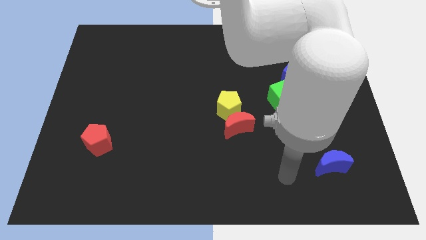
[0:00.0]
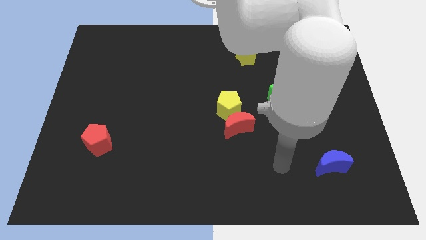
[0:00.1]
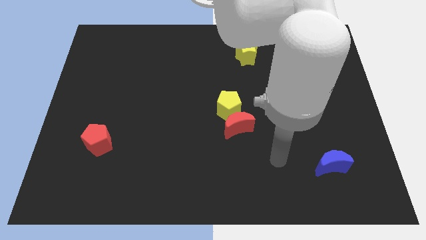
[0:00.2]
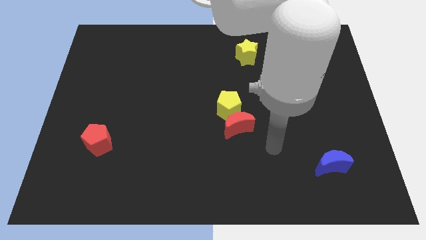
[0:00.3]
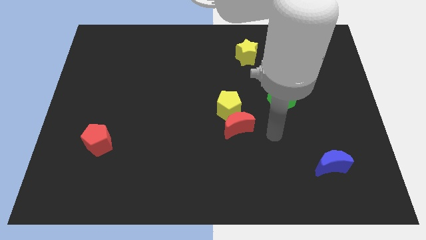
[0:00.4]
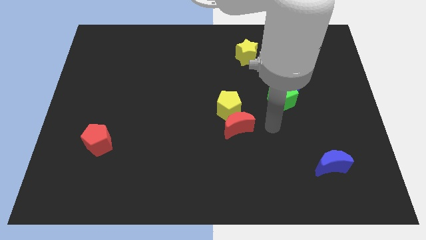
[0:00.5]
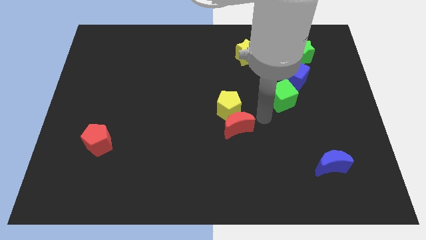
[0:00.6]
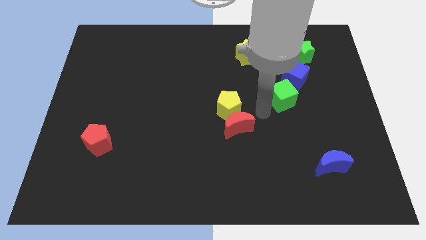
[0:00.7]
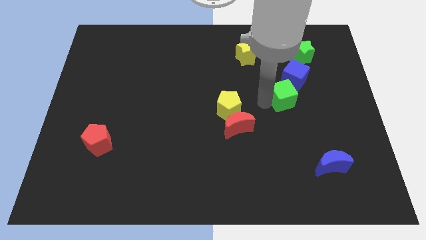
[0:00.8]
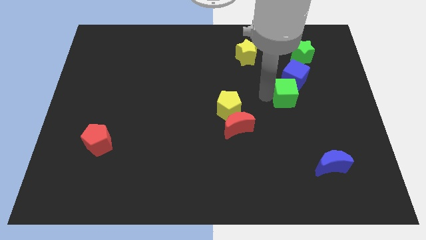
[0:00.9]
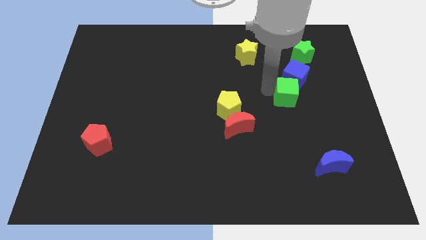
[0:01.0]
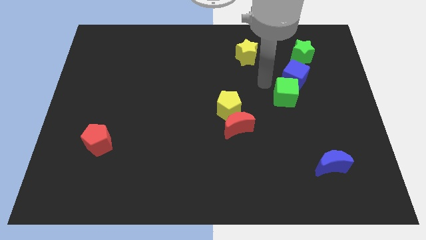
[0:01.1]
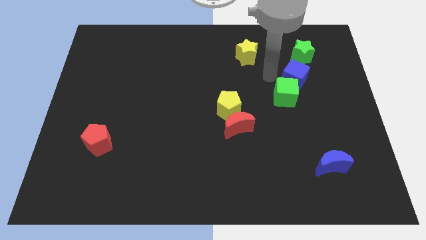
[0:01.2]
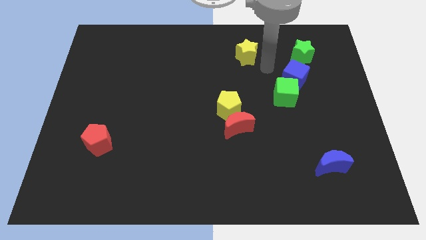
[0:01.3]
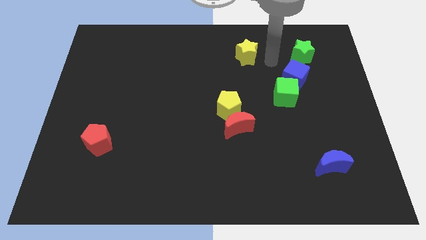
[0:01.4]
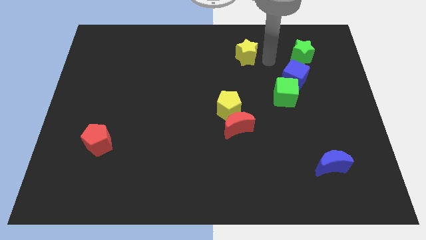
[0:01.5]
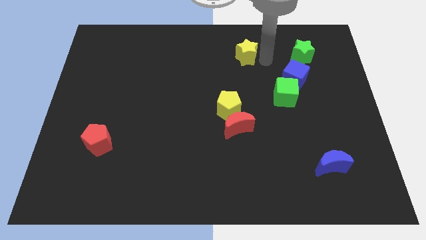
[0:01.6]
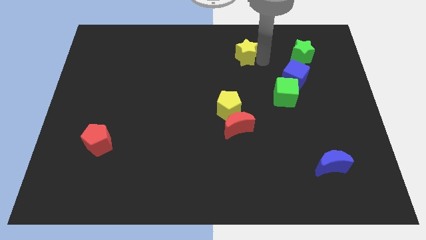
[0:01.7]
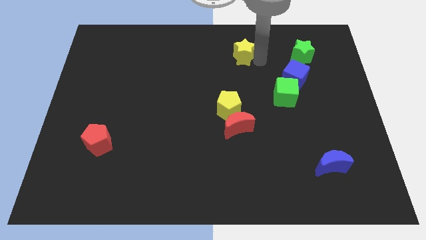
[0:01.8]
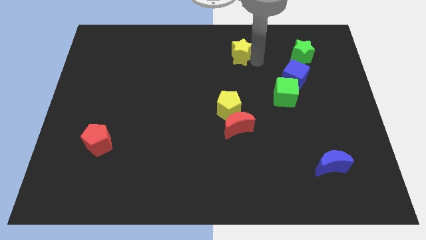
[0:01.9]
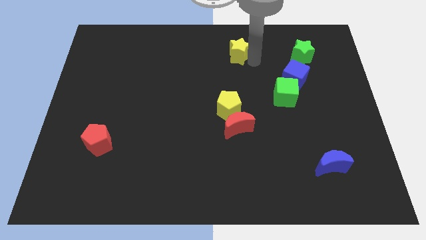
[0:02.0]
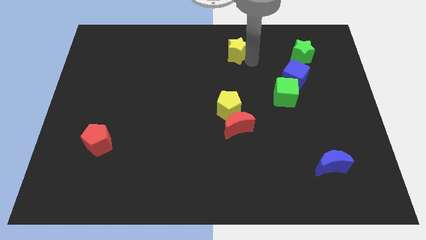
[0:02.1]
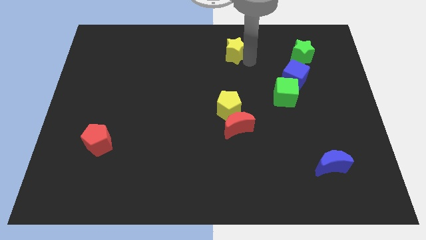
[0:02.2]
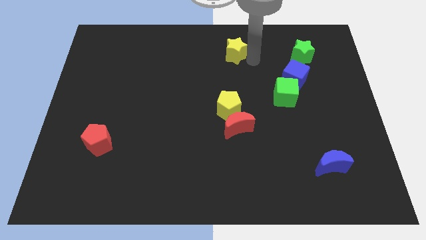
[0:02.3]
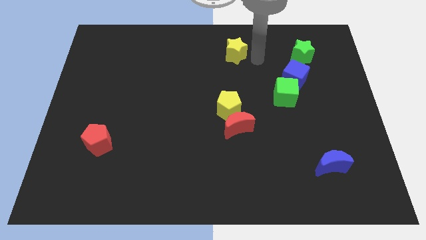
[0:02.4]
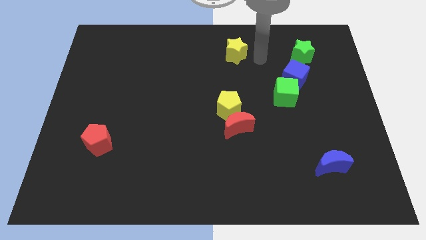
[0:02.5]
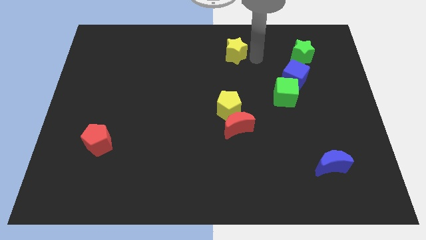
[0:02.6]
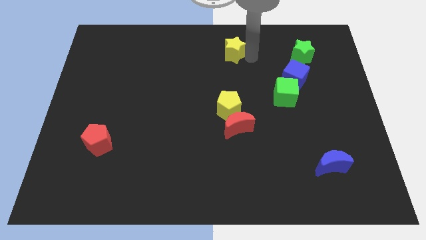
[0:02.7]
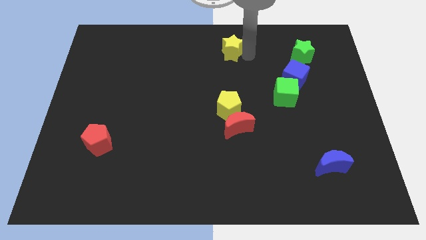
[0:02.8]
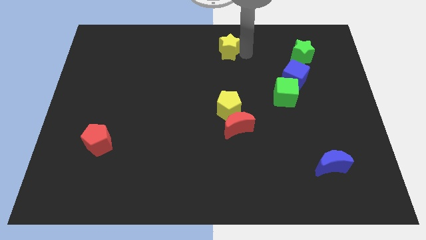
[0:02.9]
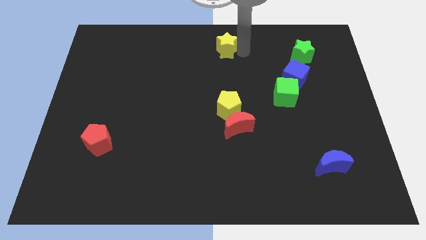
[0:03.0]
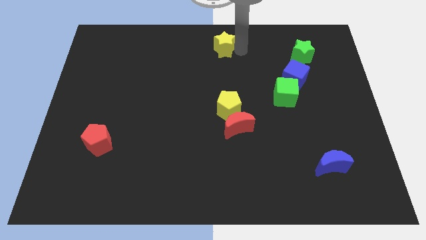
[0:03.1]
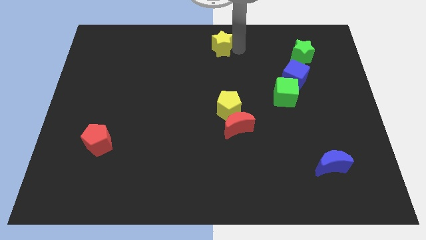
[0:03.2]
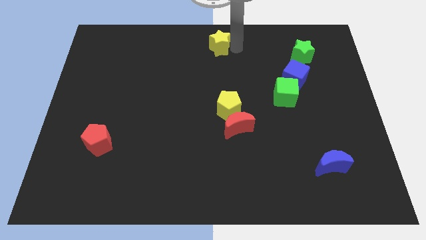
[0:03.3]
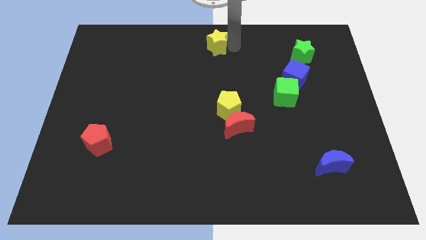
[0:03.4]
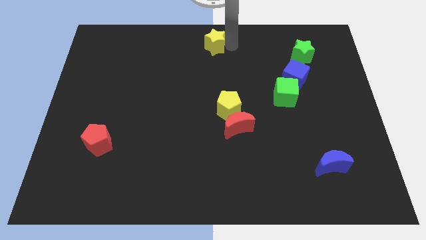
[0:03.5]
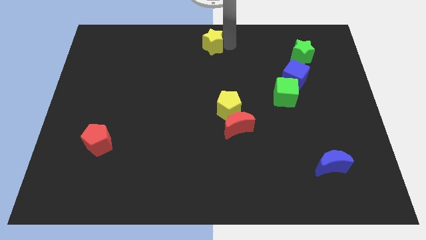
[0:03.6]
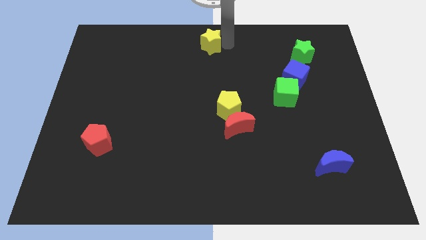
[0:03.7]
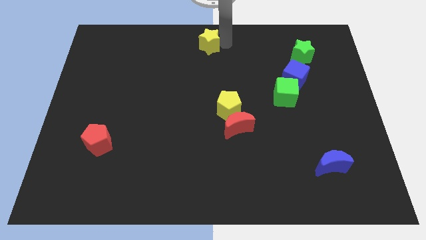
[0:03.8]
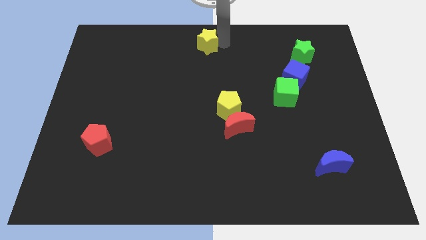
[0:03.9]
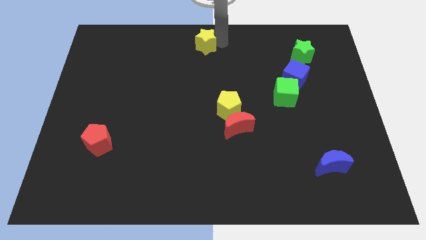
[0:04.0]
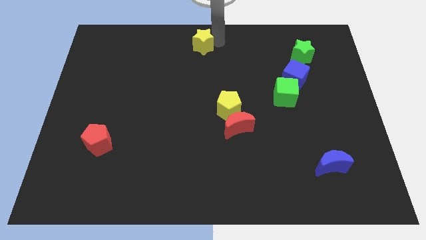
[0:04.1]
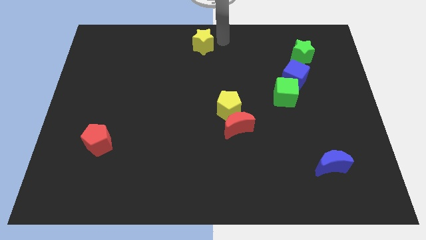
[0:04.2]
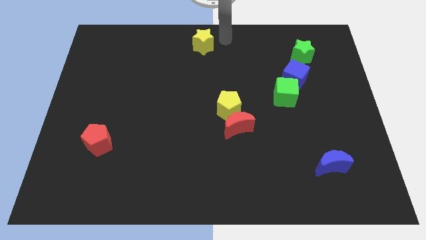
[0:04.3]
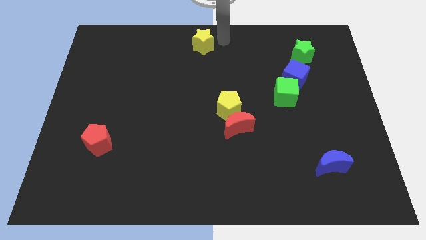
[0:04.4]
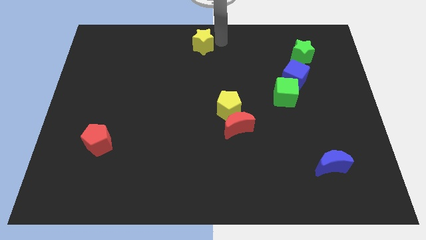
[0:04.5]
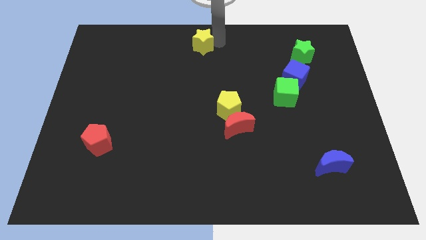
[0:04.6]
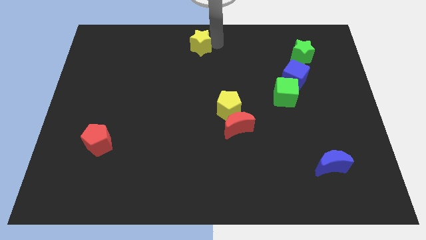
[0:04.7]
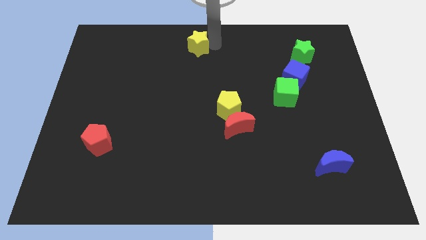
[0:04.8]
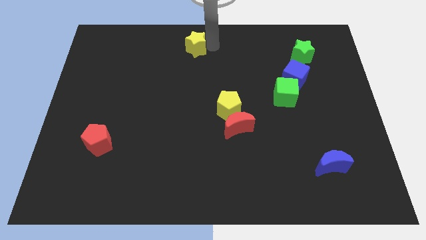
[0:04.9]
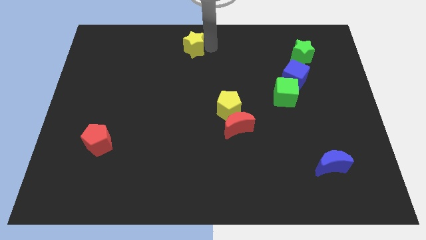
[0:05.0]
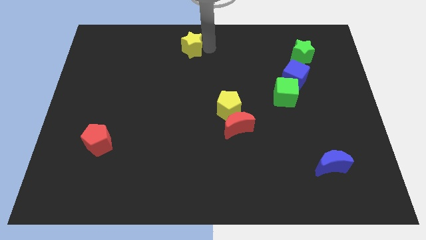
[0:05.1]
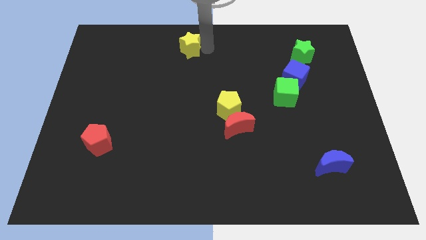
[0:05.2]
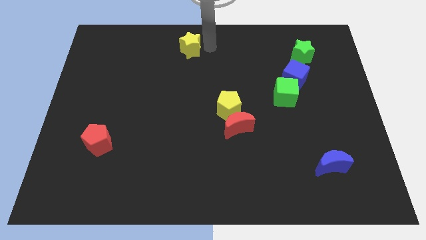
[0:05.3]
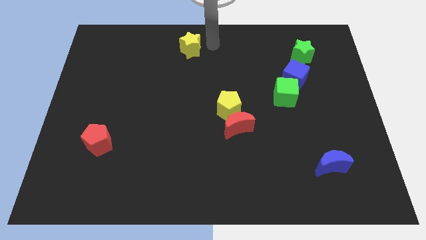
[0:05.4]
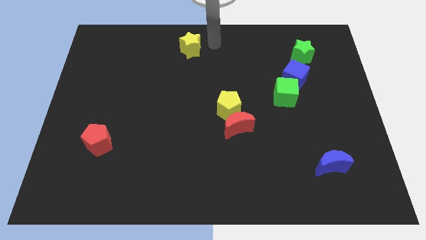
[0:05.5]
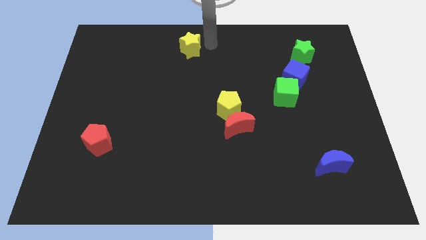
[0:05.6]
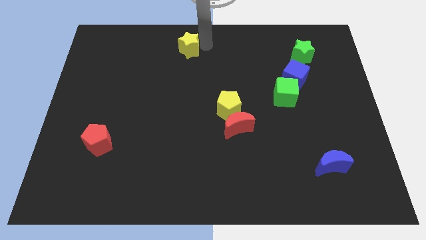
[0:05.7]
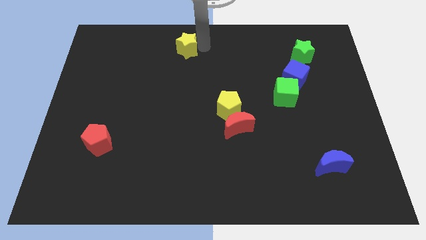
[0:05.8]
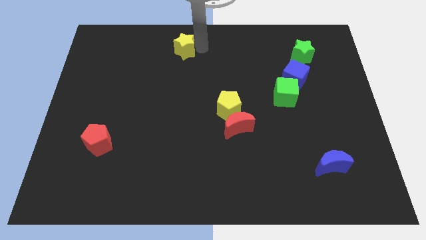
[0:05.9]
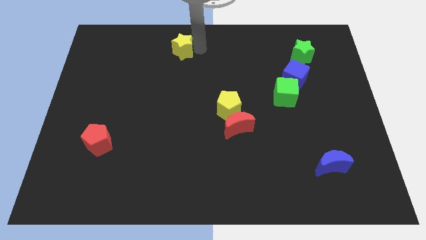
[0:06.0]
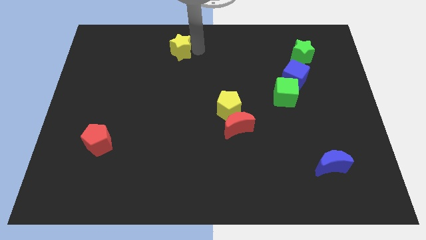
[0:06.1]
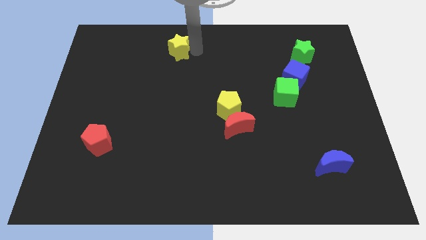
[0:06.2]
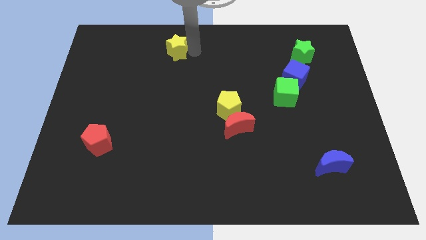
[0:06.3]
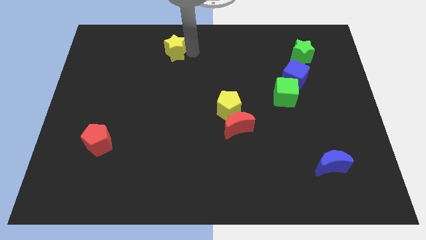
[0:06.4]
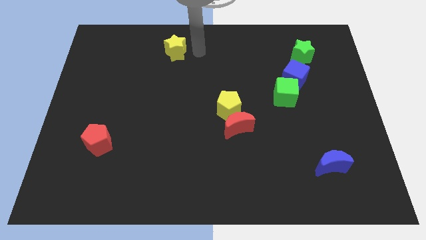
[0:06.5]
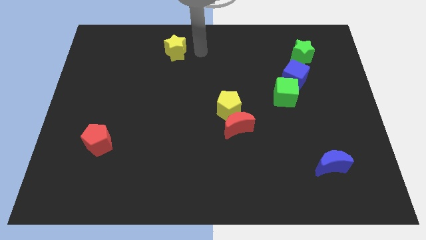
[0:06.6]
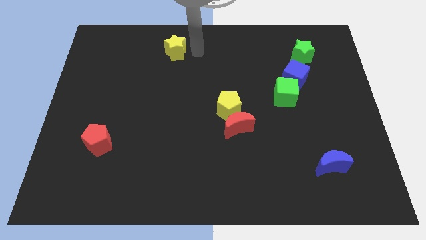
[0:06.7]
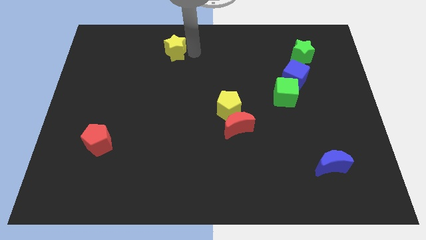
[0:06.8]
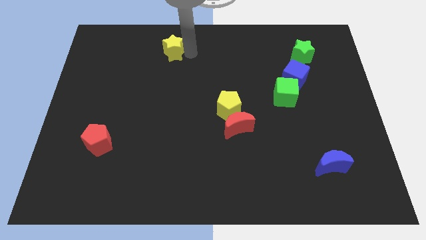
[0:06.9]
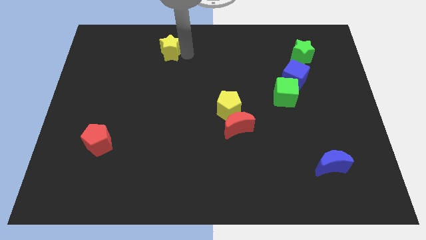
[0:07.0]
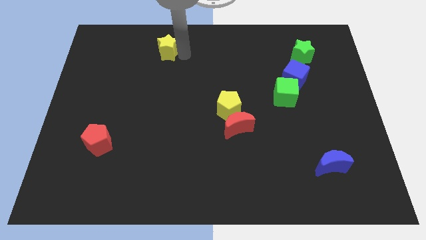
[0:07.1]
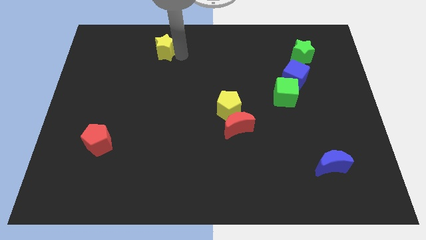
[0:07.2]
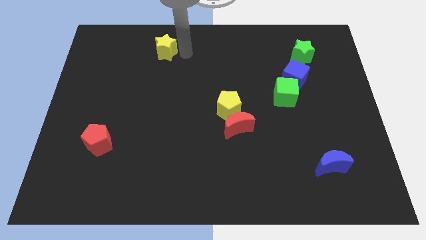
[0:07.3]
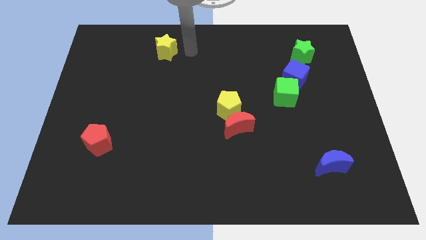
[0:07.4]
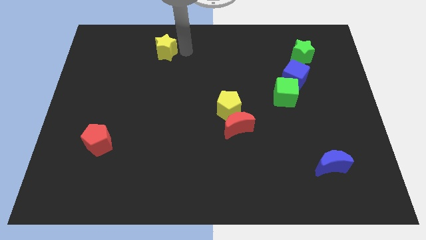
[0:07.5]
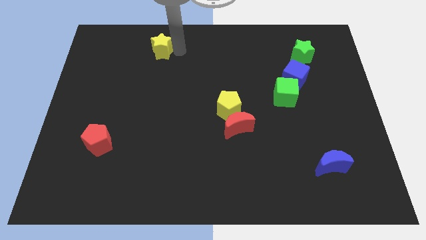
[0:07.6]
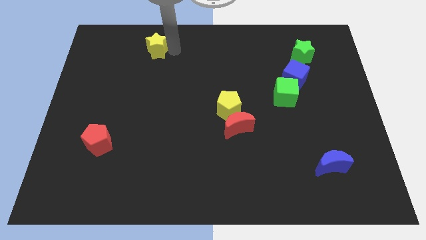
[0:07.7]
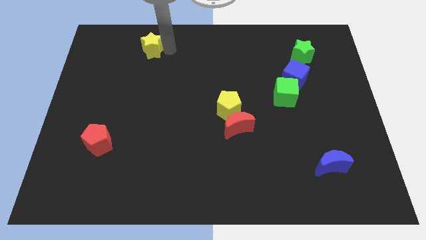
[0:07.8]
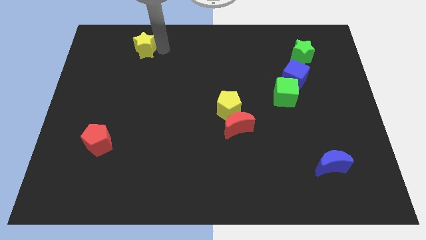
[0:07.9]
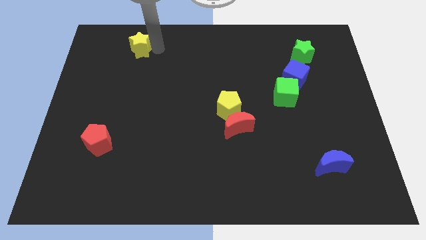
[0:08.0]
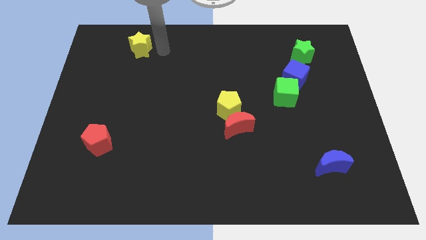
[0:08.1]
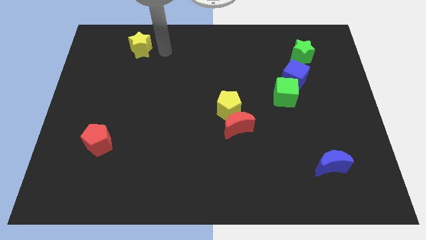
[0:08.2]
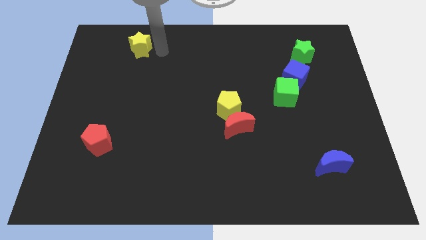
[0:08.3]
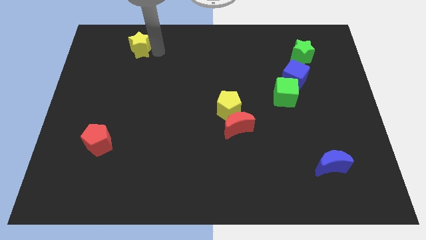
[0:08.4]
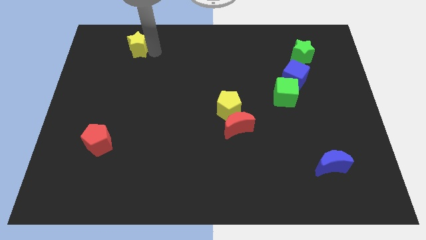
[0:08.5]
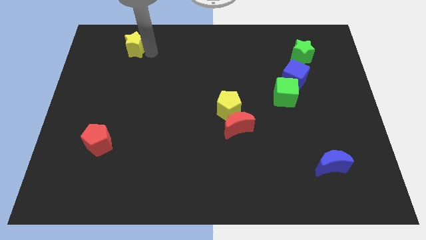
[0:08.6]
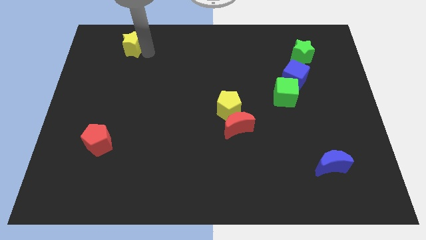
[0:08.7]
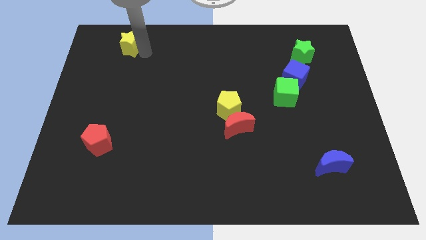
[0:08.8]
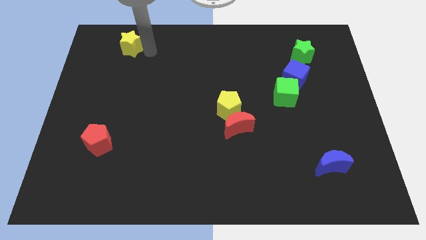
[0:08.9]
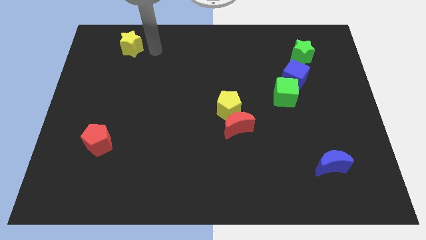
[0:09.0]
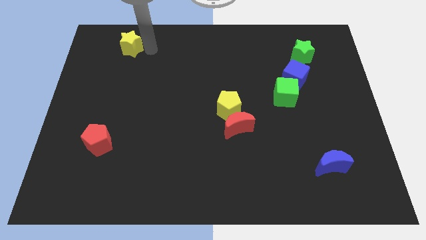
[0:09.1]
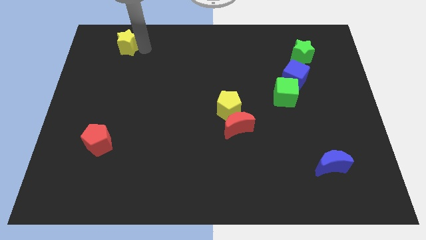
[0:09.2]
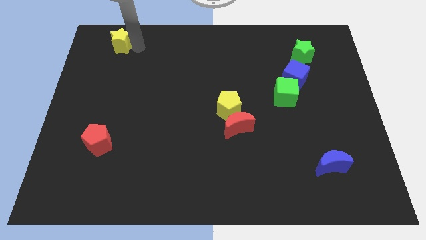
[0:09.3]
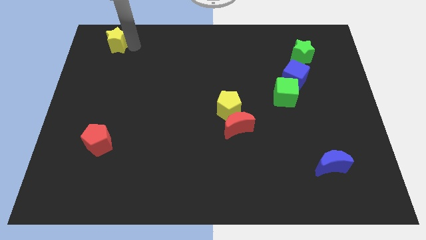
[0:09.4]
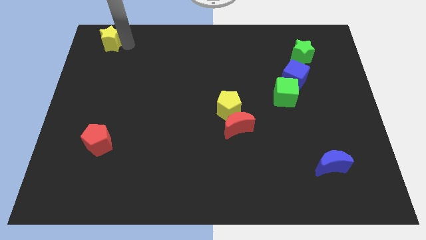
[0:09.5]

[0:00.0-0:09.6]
push the yellow star to the top left of the board
